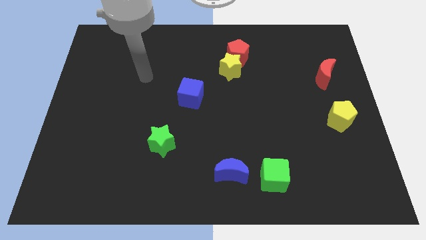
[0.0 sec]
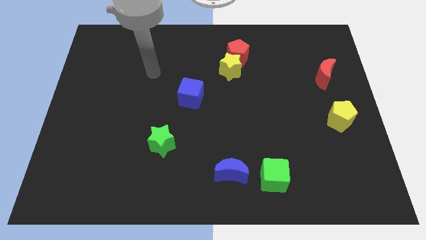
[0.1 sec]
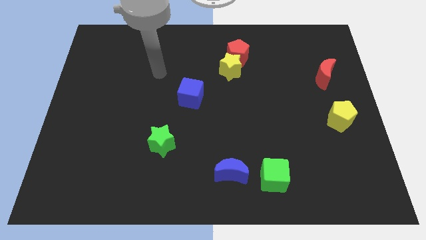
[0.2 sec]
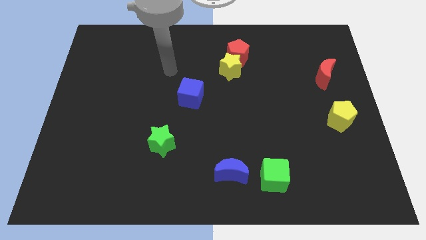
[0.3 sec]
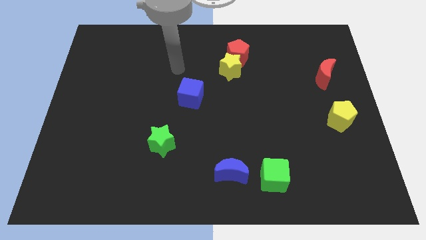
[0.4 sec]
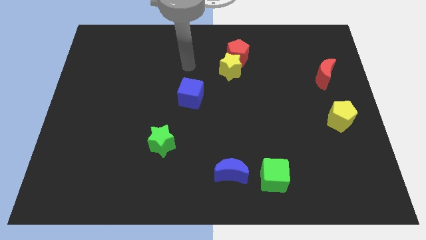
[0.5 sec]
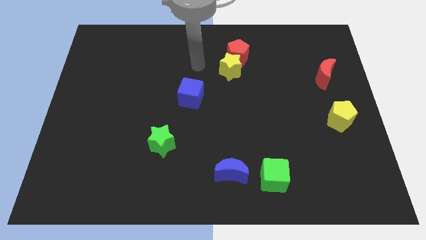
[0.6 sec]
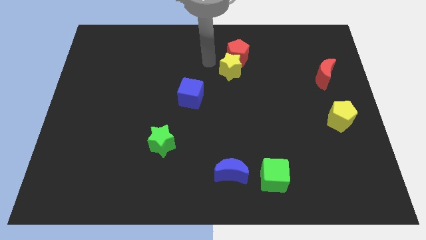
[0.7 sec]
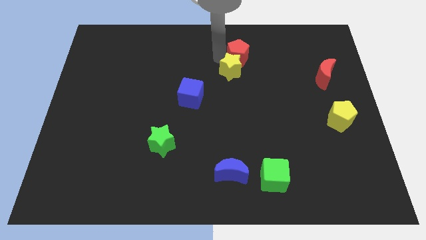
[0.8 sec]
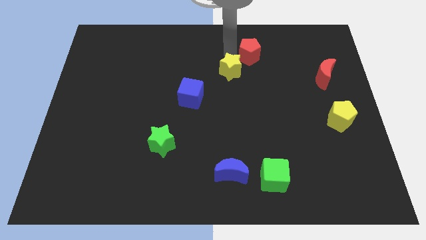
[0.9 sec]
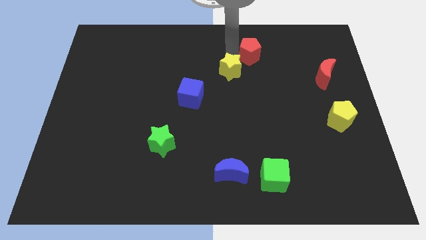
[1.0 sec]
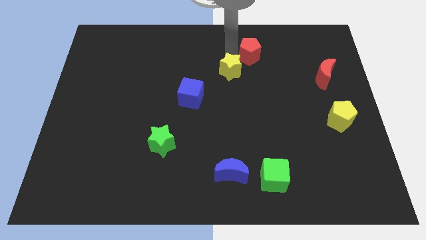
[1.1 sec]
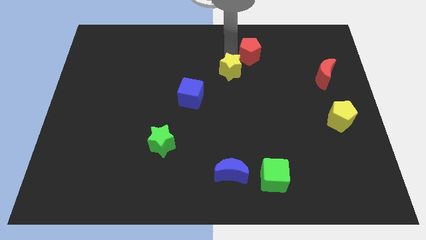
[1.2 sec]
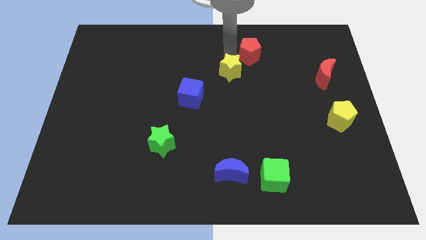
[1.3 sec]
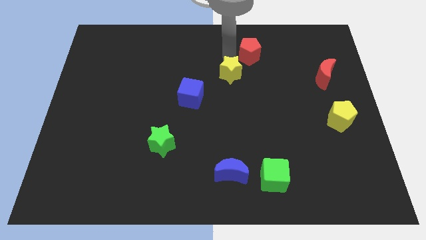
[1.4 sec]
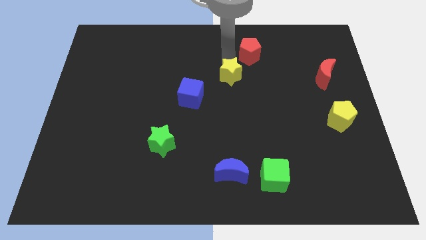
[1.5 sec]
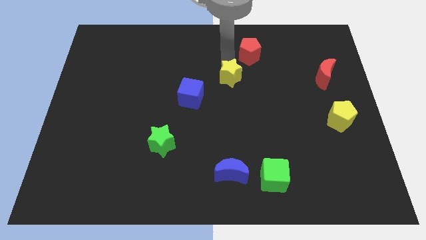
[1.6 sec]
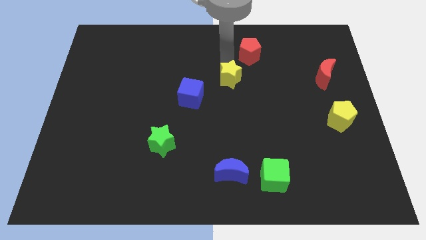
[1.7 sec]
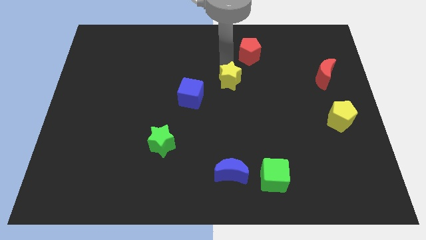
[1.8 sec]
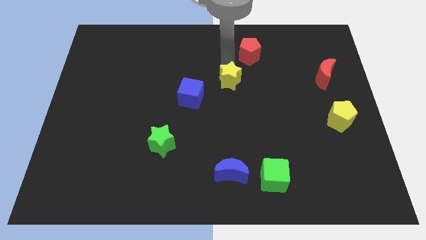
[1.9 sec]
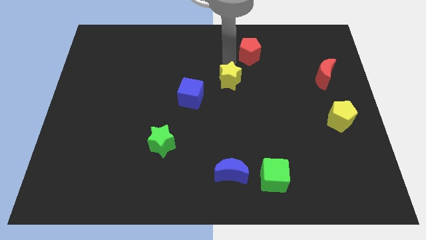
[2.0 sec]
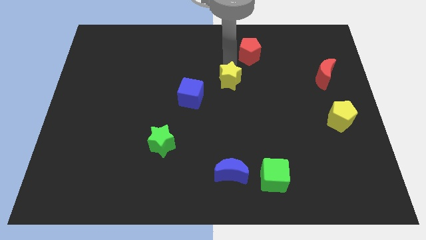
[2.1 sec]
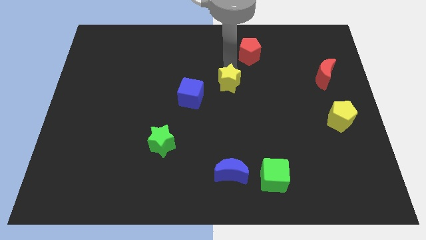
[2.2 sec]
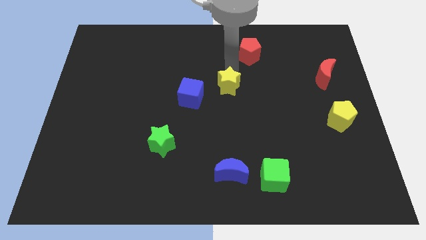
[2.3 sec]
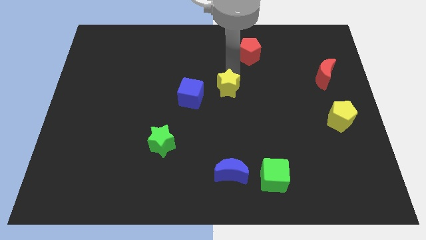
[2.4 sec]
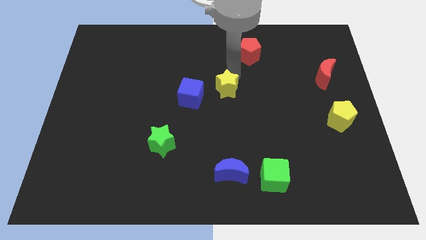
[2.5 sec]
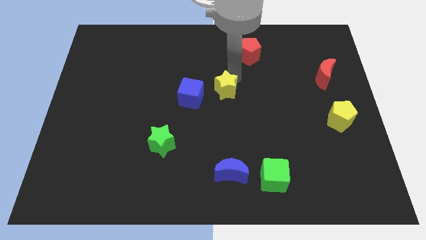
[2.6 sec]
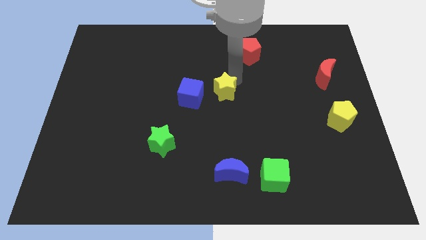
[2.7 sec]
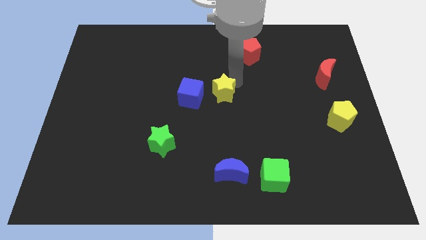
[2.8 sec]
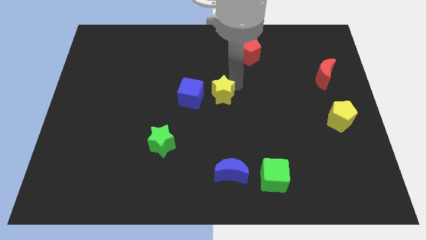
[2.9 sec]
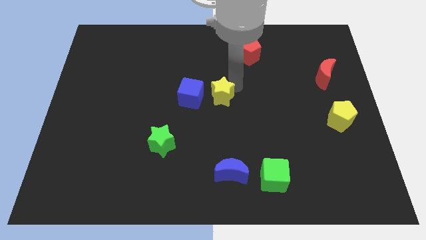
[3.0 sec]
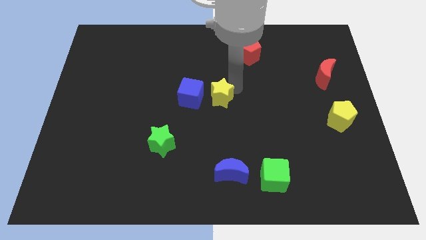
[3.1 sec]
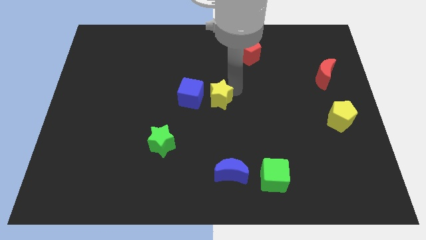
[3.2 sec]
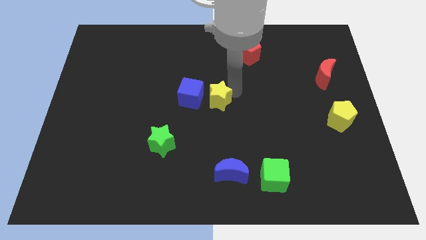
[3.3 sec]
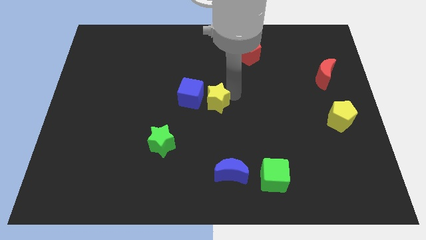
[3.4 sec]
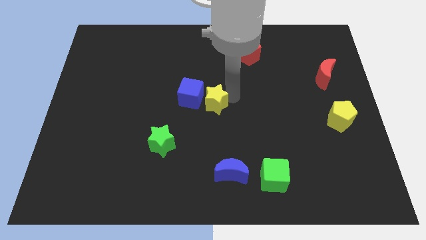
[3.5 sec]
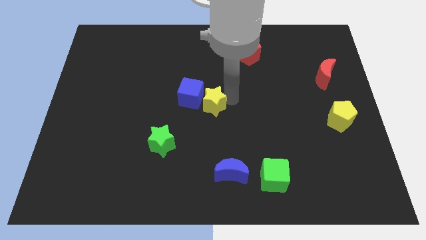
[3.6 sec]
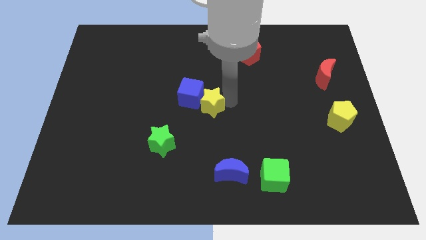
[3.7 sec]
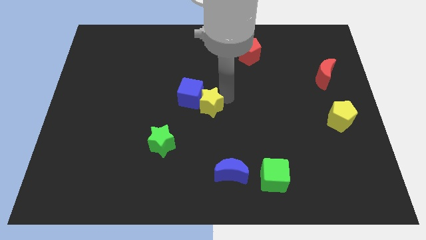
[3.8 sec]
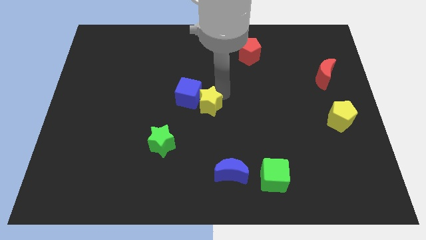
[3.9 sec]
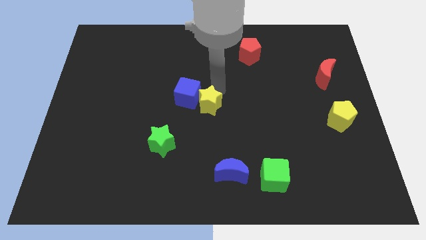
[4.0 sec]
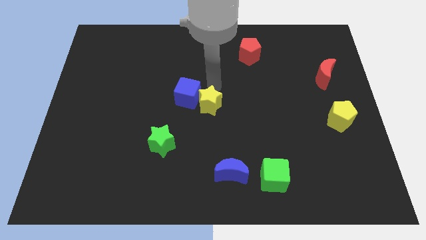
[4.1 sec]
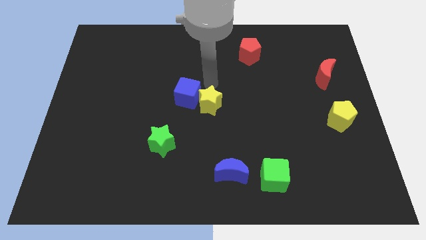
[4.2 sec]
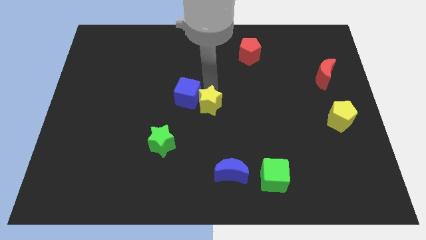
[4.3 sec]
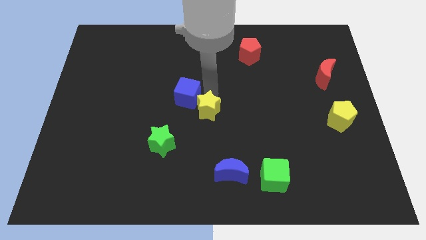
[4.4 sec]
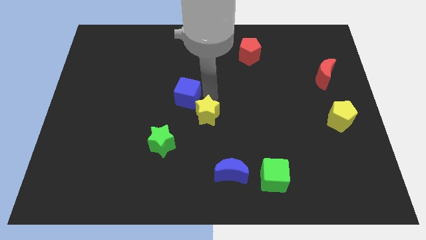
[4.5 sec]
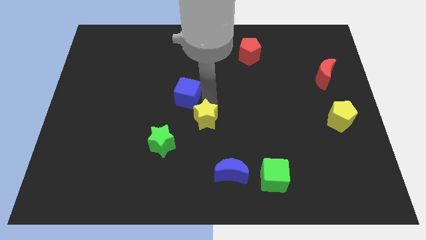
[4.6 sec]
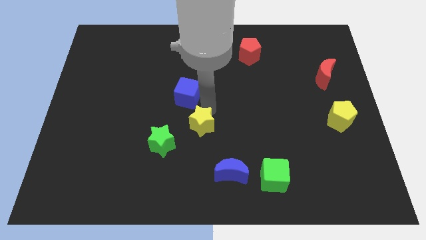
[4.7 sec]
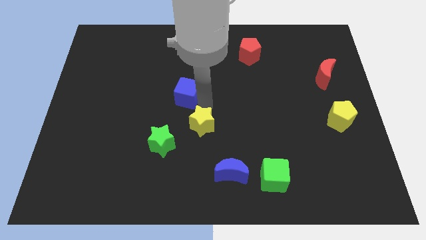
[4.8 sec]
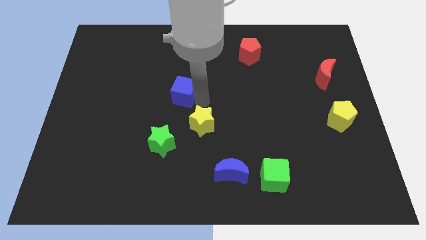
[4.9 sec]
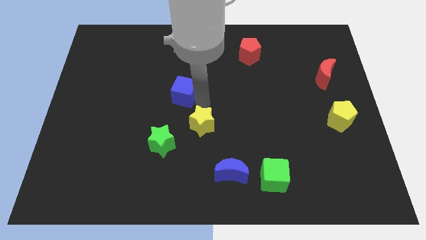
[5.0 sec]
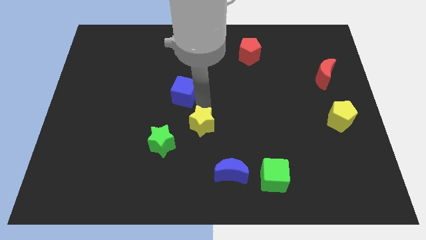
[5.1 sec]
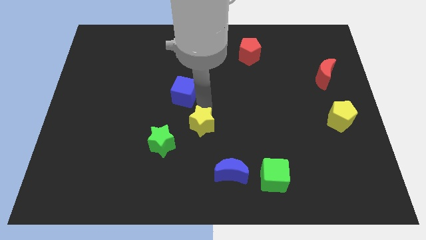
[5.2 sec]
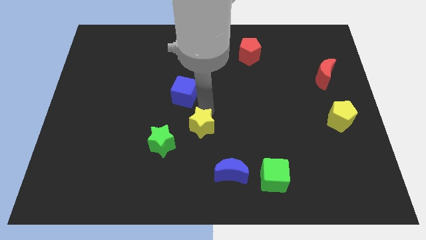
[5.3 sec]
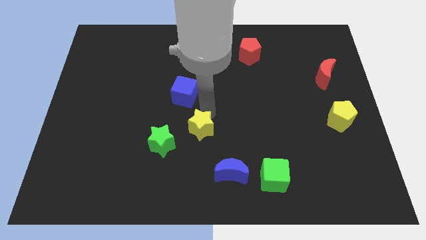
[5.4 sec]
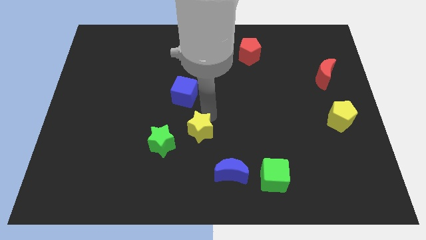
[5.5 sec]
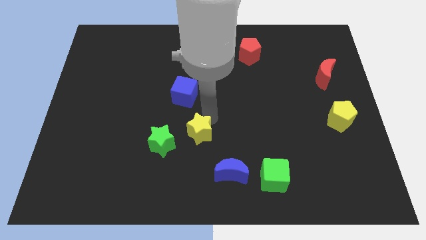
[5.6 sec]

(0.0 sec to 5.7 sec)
slide the yellow star diagonally up and to the left of the blue moon

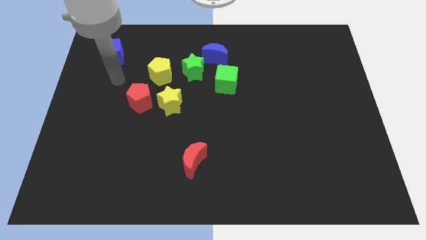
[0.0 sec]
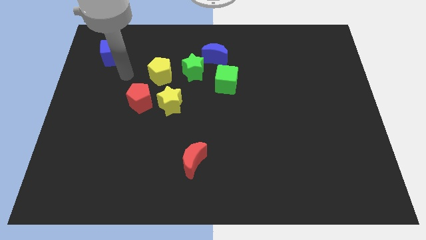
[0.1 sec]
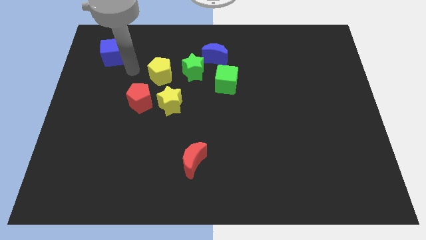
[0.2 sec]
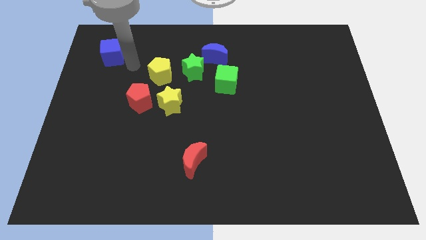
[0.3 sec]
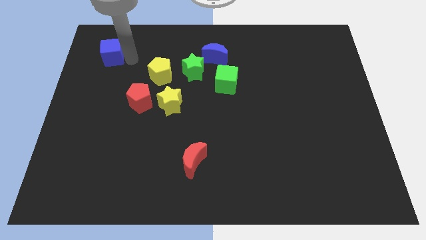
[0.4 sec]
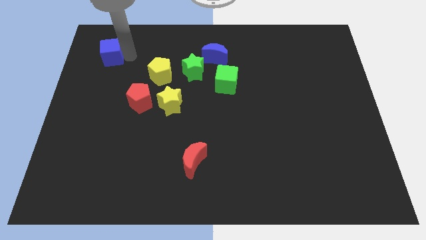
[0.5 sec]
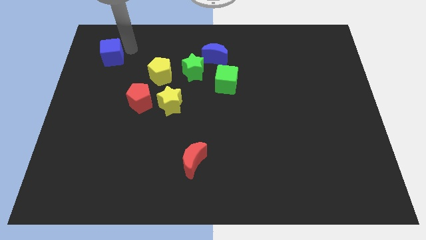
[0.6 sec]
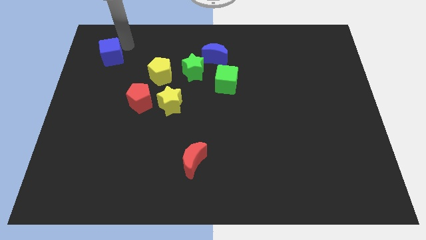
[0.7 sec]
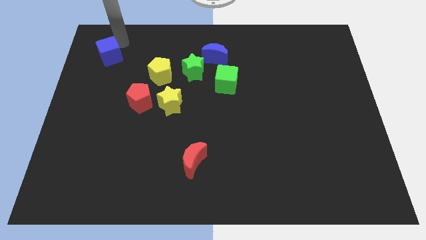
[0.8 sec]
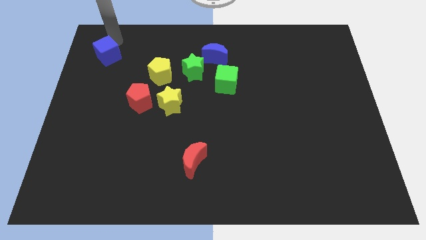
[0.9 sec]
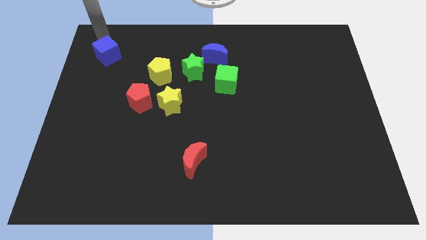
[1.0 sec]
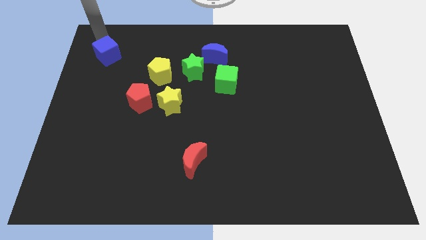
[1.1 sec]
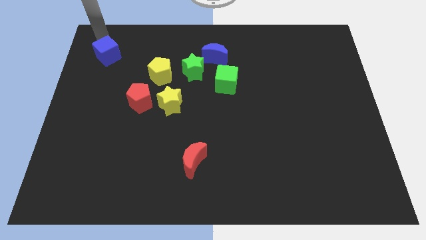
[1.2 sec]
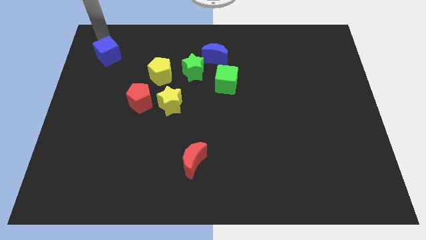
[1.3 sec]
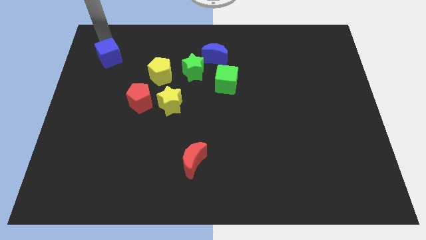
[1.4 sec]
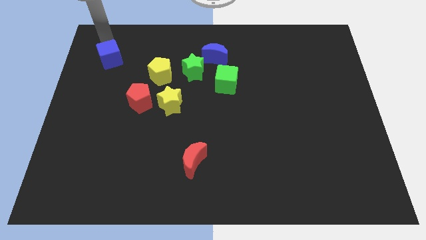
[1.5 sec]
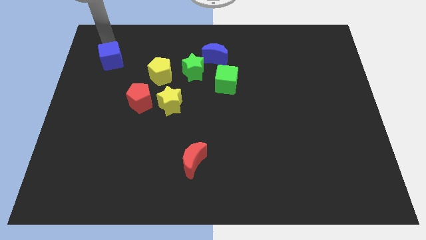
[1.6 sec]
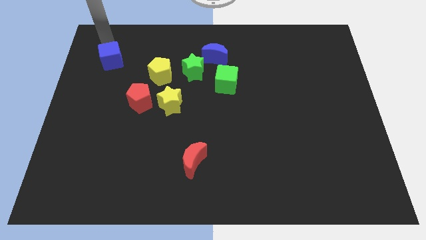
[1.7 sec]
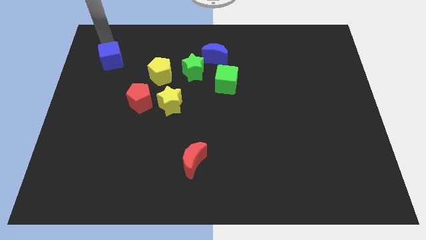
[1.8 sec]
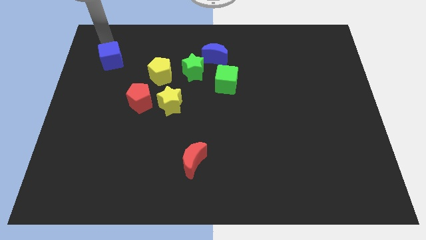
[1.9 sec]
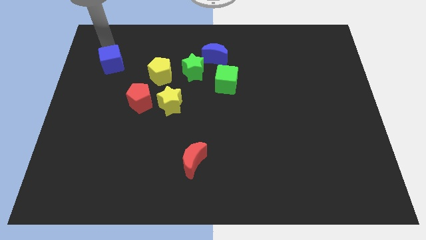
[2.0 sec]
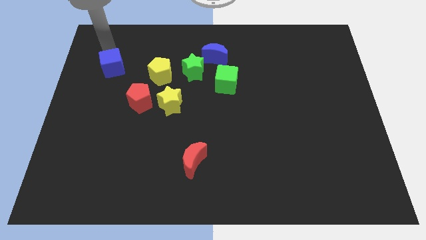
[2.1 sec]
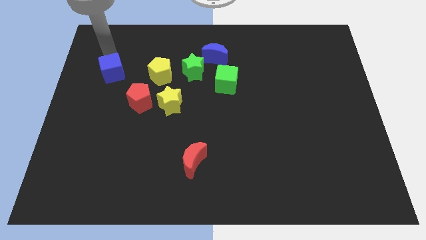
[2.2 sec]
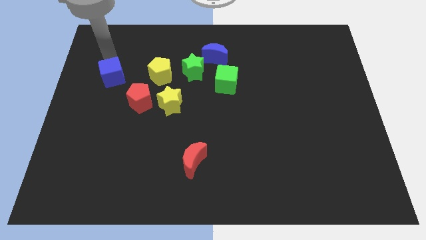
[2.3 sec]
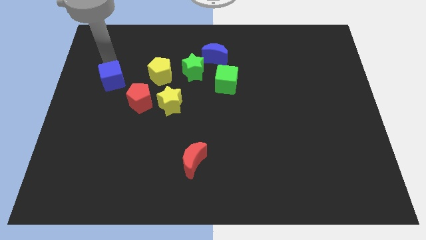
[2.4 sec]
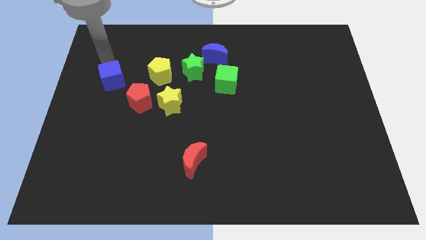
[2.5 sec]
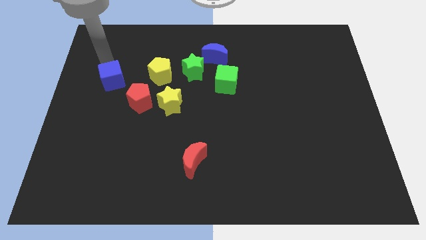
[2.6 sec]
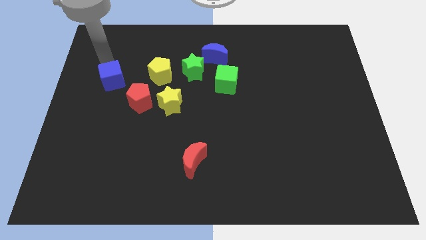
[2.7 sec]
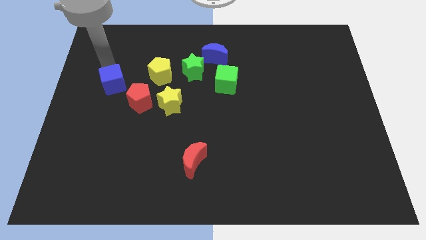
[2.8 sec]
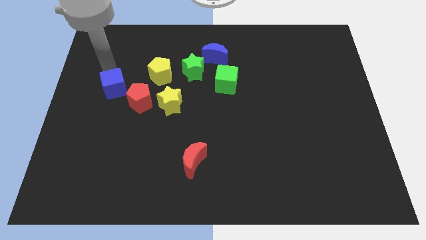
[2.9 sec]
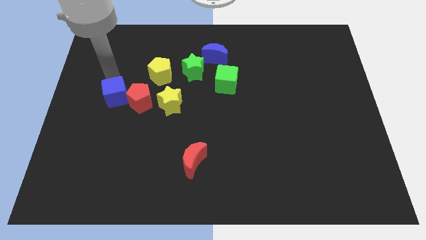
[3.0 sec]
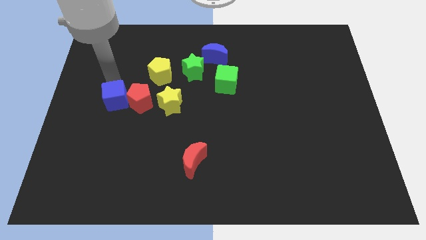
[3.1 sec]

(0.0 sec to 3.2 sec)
move the blue cube diagonally down and to the left of the red pentagon
